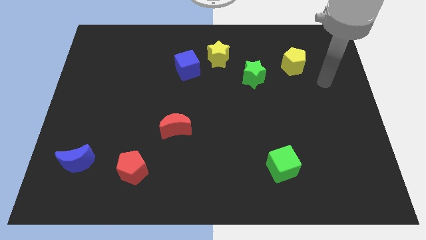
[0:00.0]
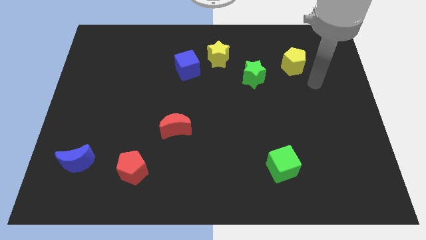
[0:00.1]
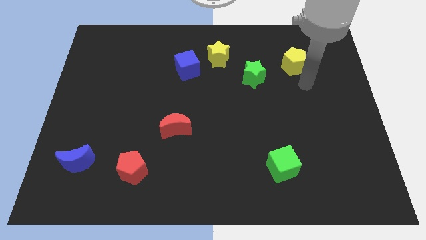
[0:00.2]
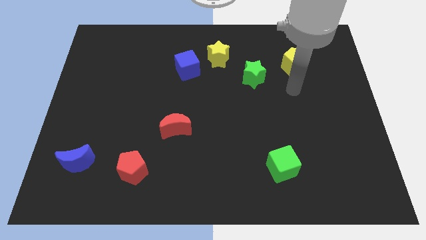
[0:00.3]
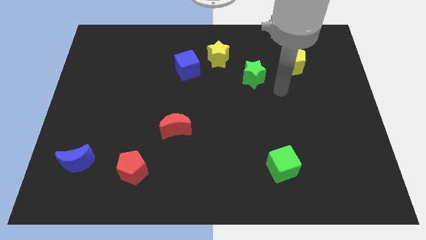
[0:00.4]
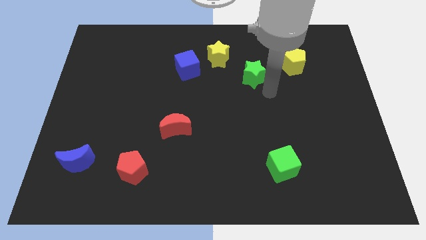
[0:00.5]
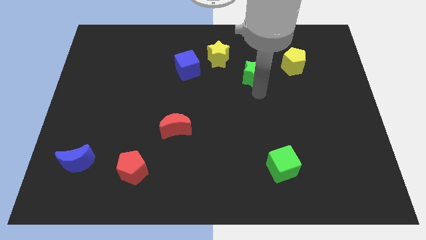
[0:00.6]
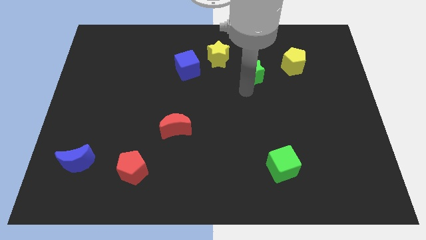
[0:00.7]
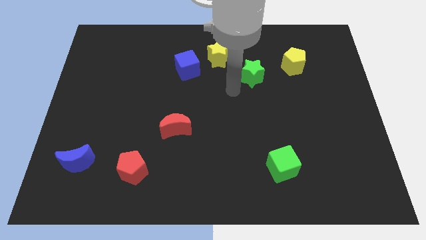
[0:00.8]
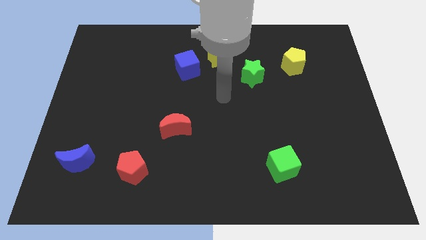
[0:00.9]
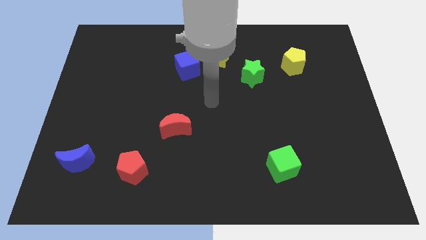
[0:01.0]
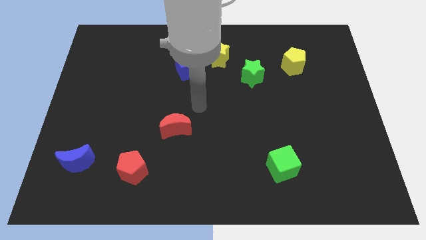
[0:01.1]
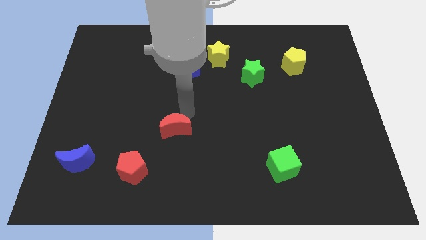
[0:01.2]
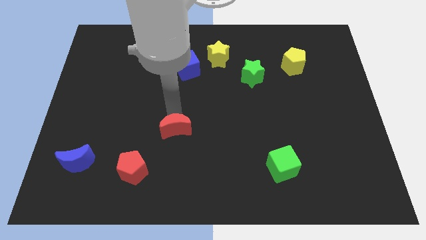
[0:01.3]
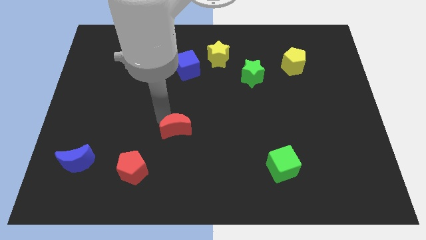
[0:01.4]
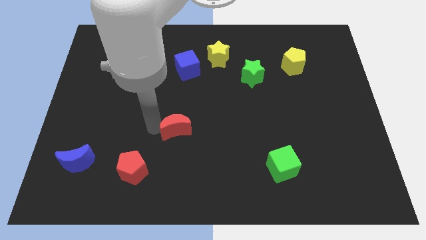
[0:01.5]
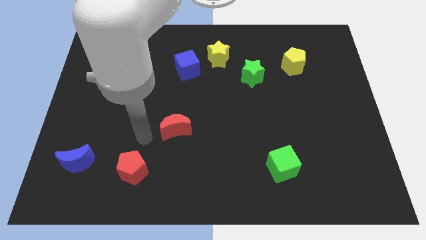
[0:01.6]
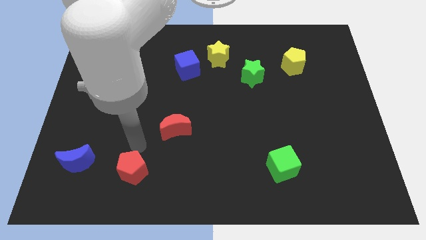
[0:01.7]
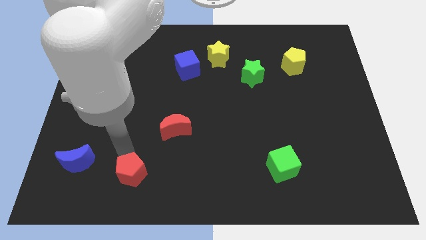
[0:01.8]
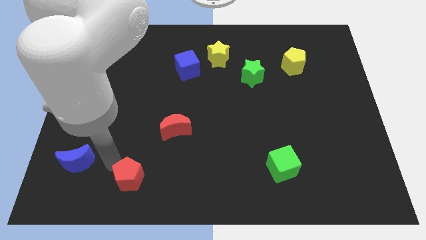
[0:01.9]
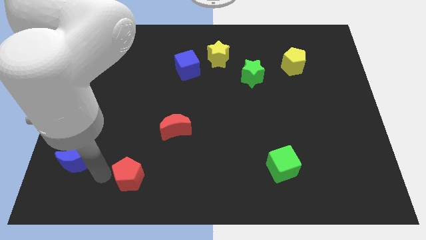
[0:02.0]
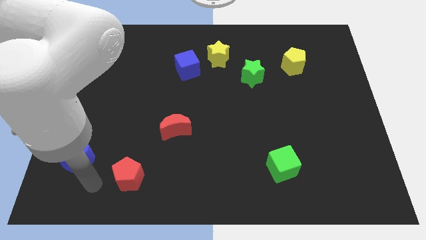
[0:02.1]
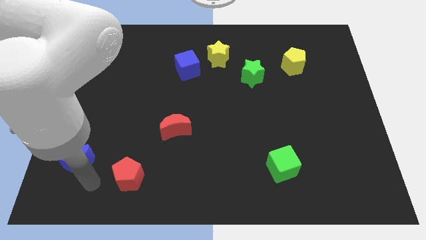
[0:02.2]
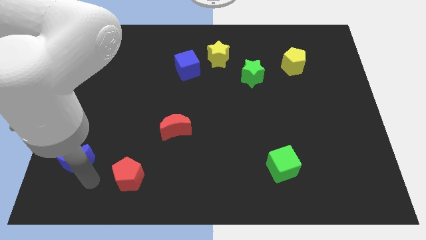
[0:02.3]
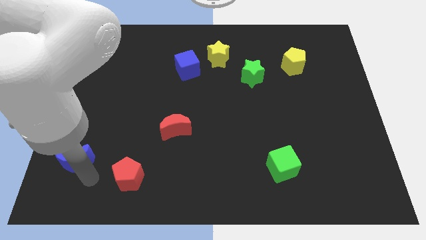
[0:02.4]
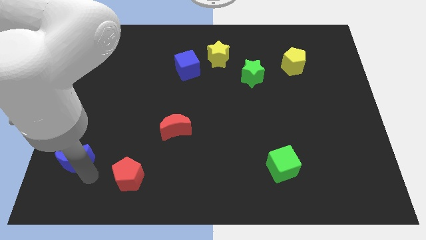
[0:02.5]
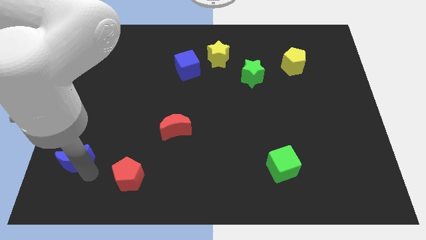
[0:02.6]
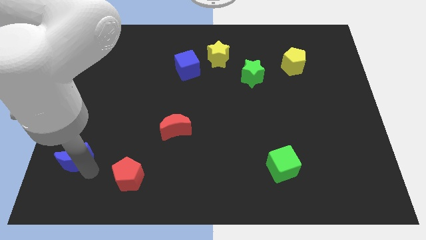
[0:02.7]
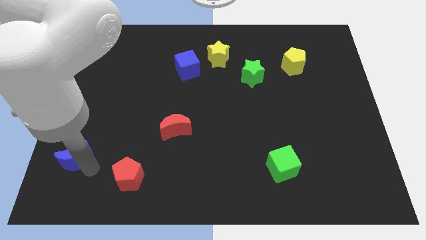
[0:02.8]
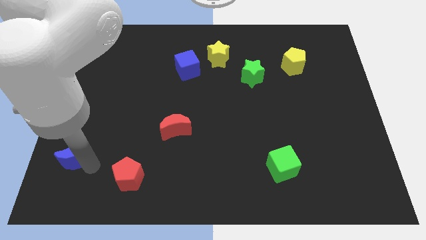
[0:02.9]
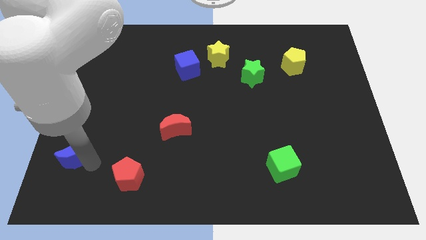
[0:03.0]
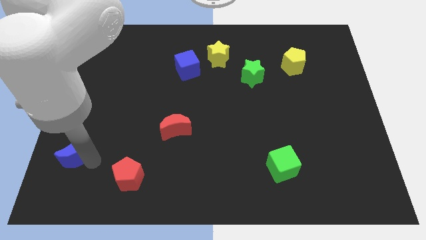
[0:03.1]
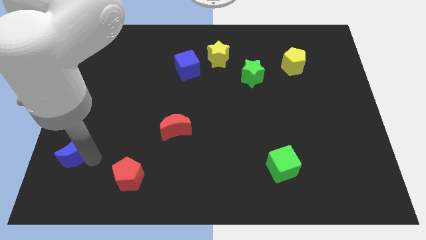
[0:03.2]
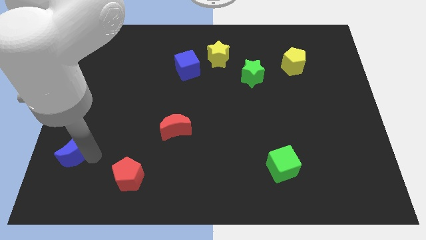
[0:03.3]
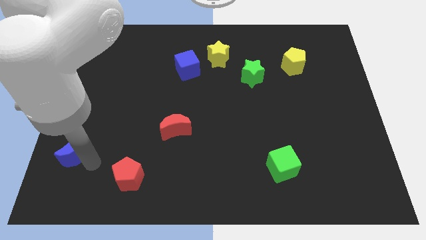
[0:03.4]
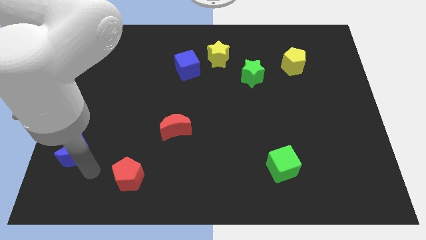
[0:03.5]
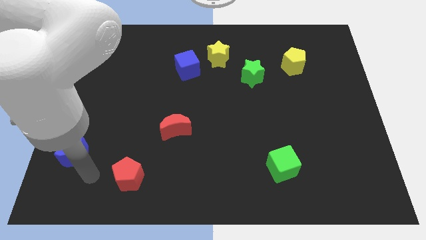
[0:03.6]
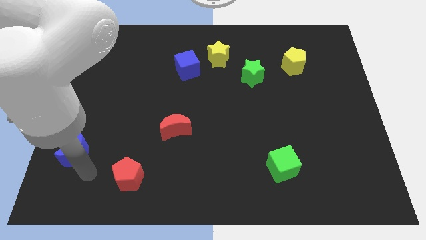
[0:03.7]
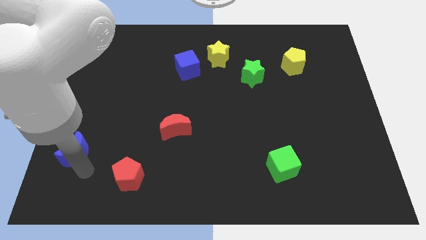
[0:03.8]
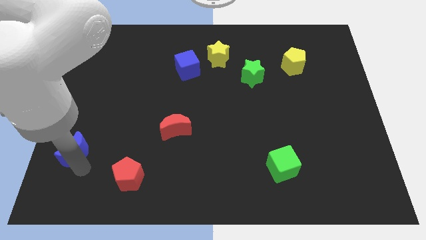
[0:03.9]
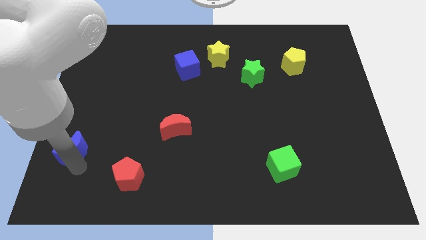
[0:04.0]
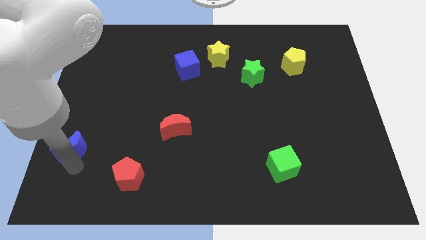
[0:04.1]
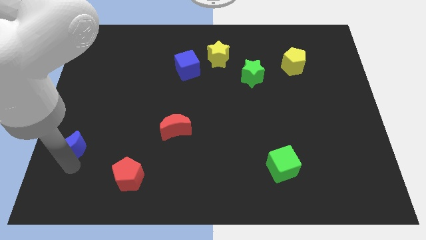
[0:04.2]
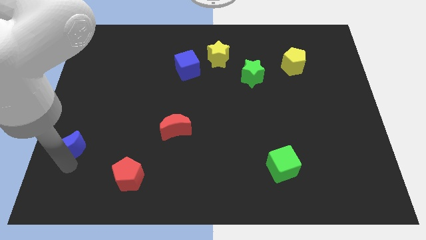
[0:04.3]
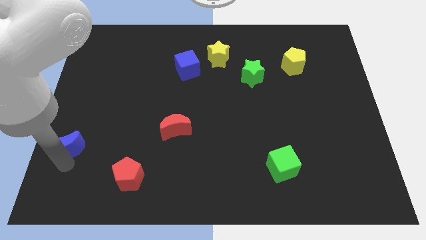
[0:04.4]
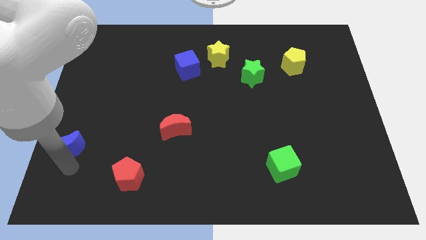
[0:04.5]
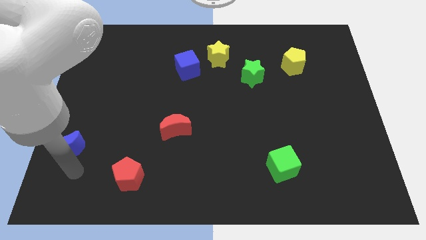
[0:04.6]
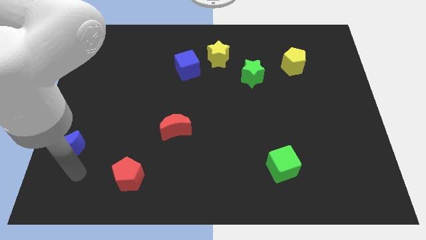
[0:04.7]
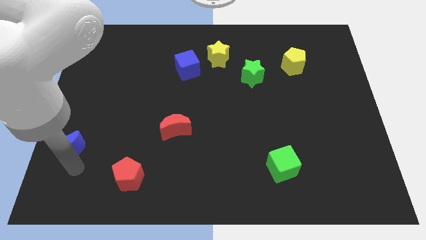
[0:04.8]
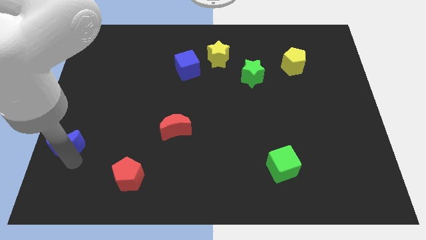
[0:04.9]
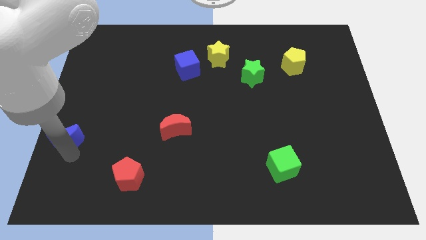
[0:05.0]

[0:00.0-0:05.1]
put the blue moon to the left side

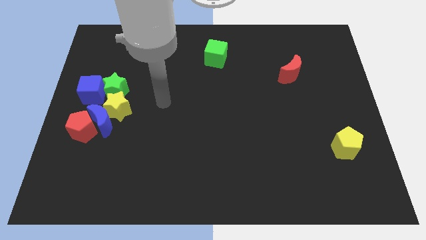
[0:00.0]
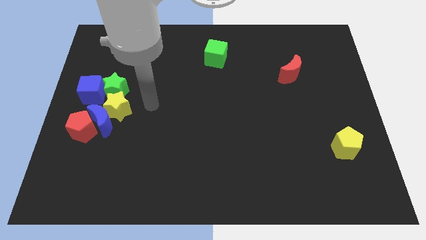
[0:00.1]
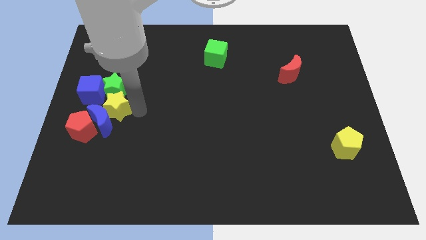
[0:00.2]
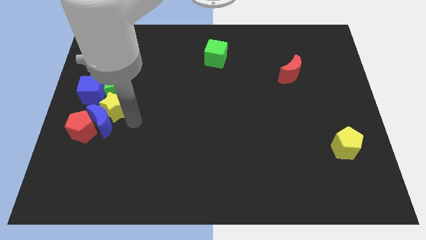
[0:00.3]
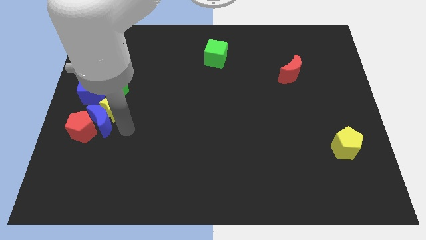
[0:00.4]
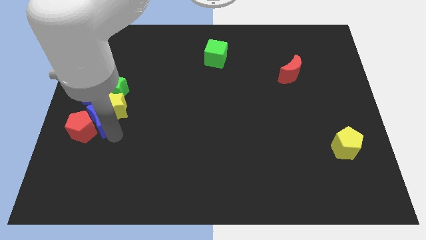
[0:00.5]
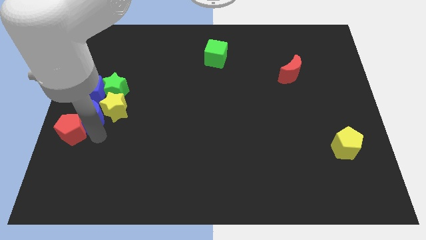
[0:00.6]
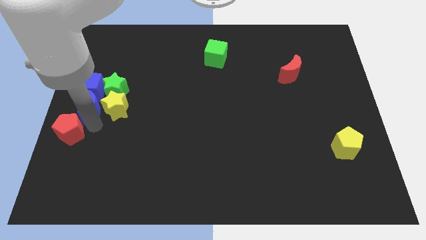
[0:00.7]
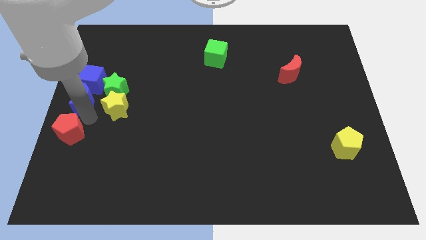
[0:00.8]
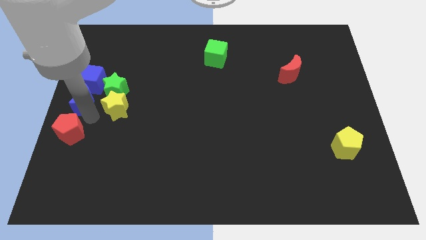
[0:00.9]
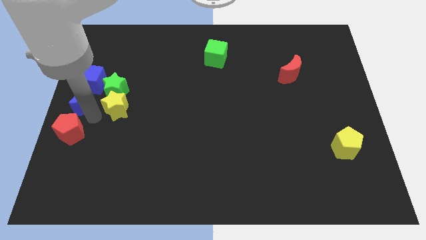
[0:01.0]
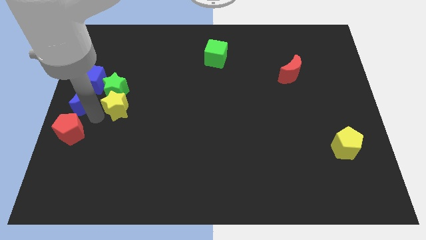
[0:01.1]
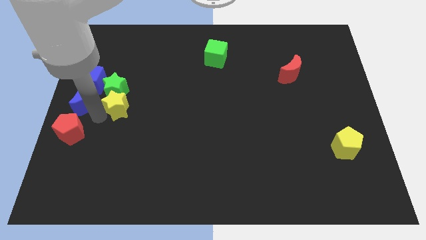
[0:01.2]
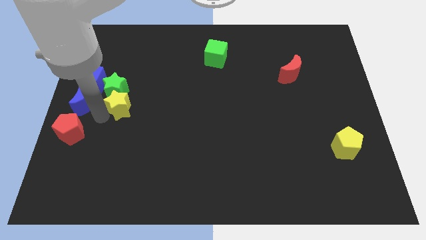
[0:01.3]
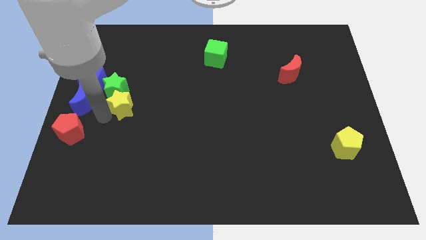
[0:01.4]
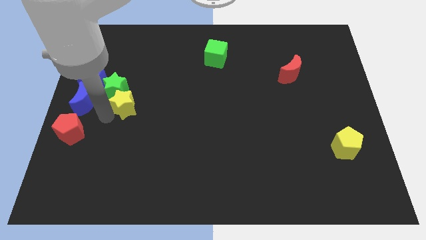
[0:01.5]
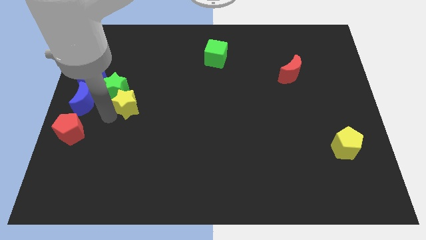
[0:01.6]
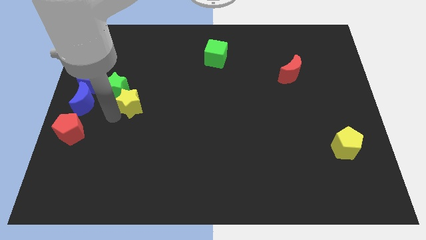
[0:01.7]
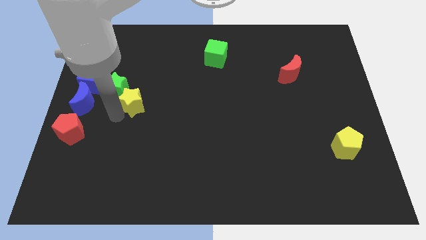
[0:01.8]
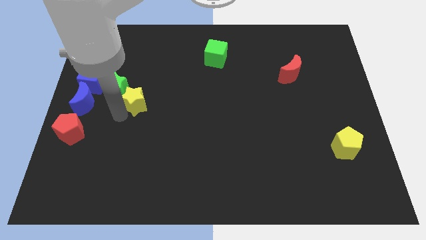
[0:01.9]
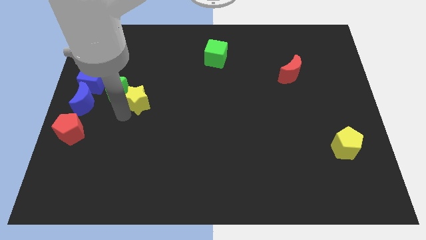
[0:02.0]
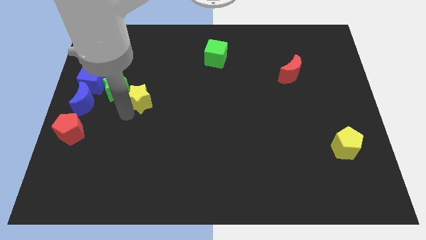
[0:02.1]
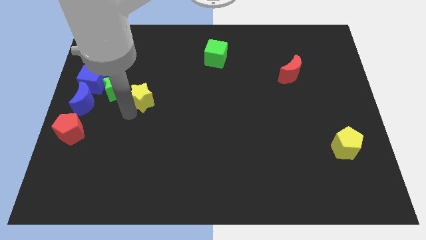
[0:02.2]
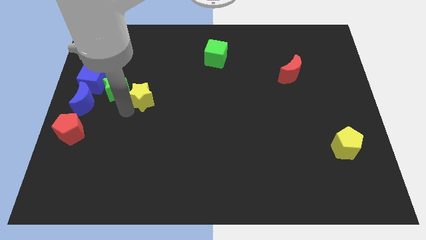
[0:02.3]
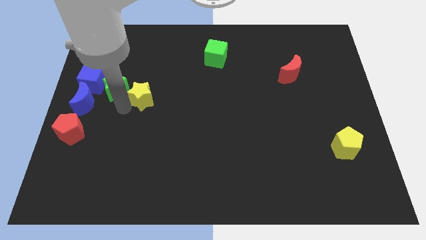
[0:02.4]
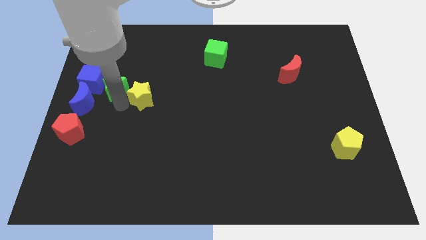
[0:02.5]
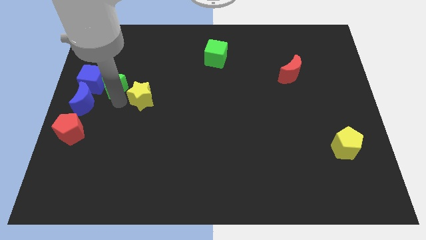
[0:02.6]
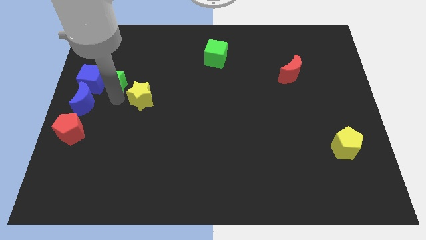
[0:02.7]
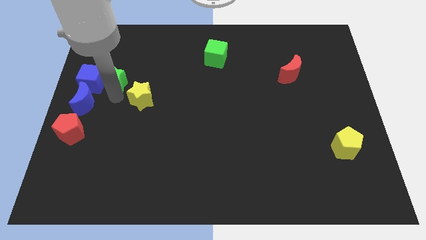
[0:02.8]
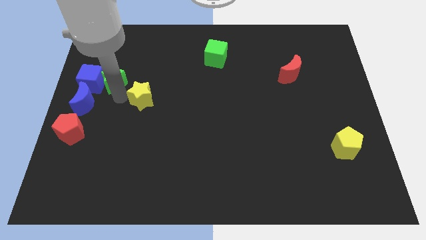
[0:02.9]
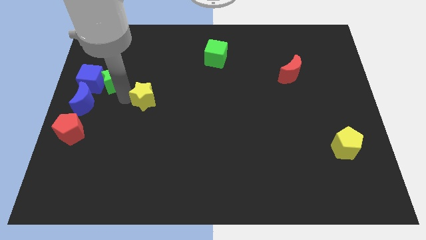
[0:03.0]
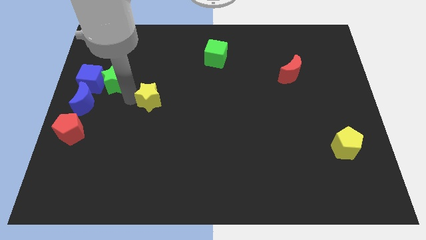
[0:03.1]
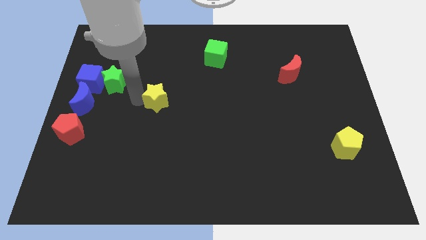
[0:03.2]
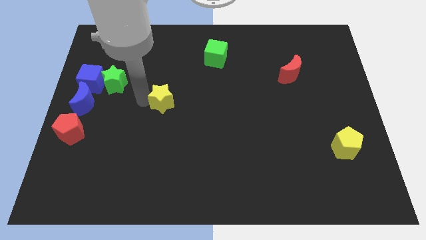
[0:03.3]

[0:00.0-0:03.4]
move the yellow star to the middle
